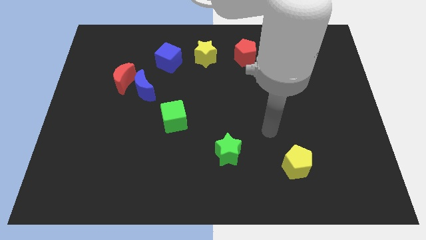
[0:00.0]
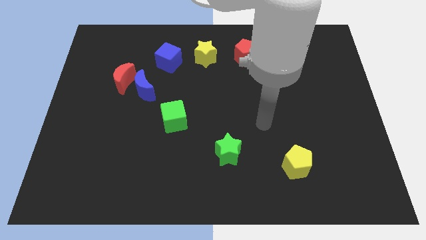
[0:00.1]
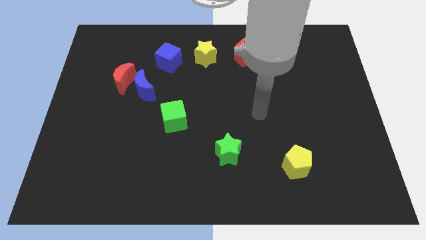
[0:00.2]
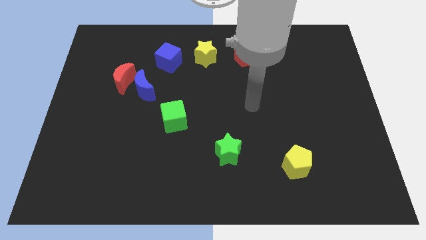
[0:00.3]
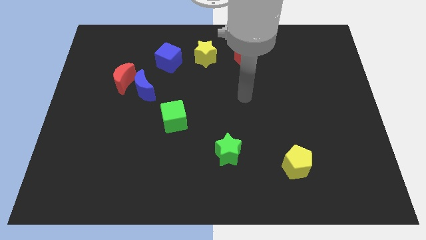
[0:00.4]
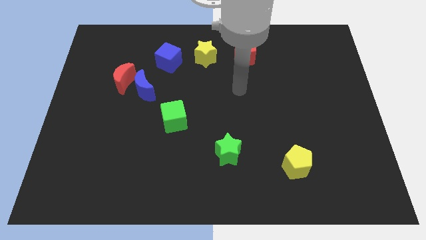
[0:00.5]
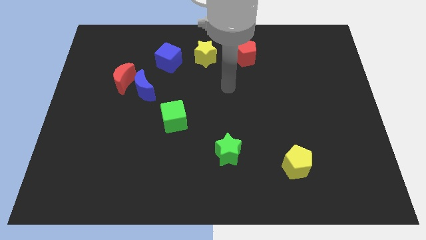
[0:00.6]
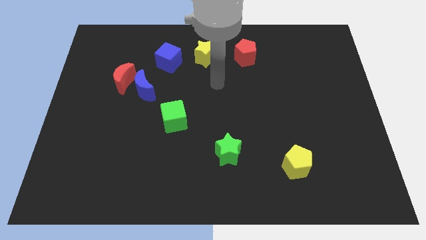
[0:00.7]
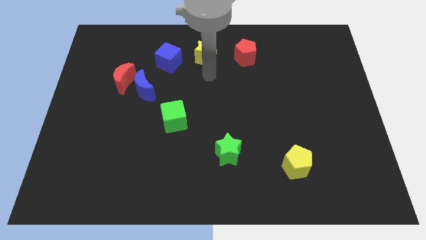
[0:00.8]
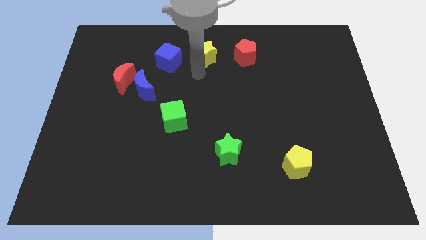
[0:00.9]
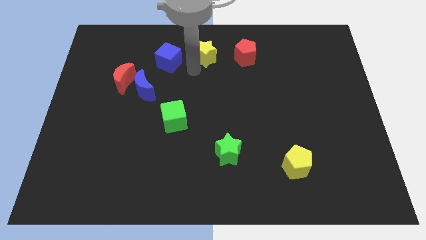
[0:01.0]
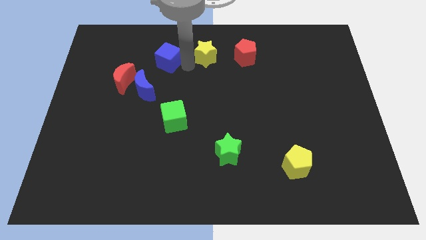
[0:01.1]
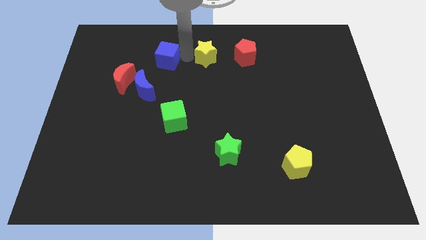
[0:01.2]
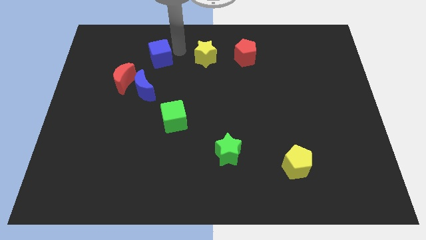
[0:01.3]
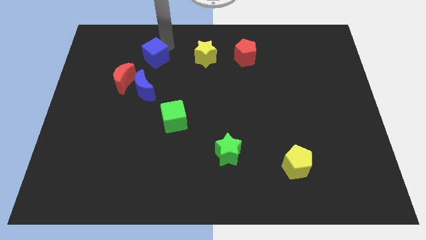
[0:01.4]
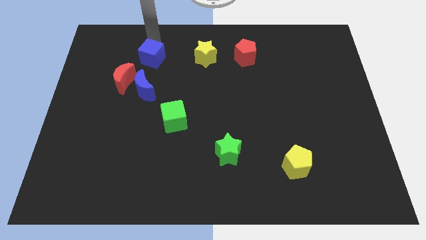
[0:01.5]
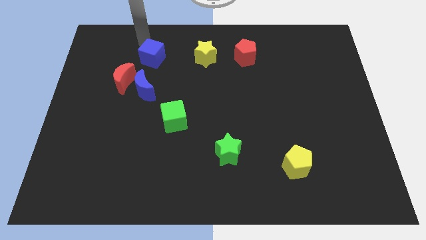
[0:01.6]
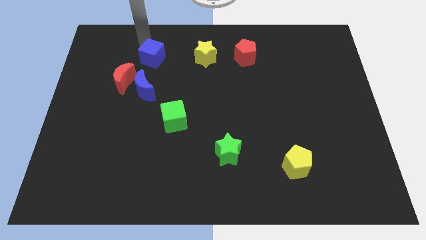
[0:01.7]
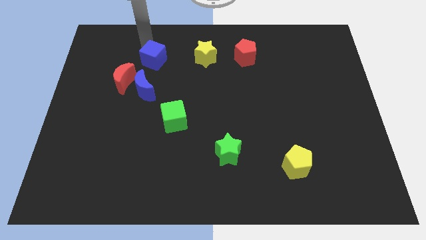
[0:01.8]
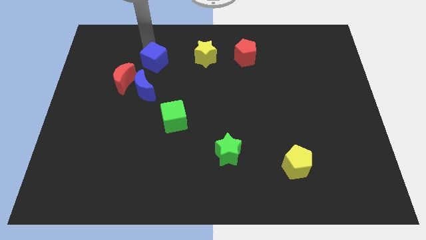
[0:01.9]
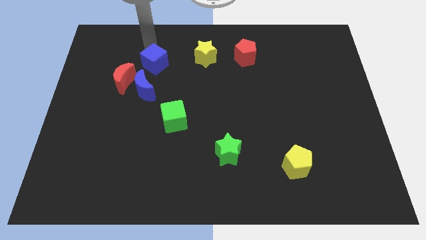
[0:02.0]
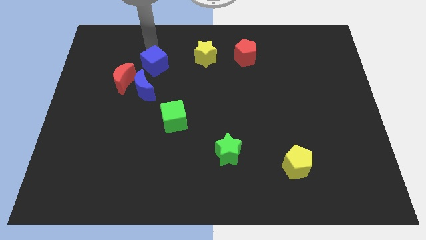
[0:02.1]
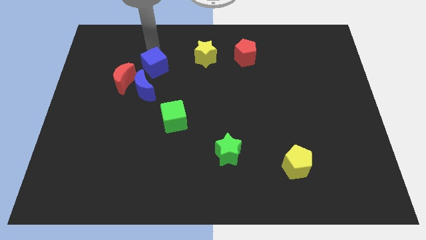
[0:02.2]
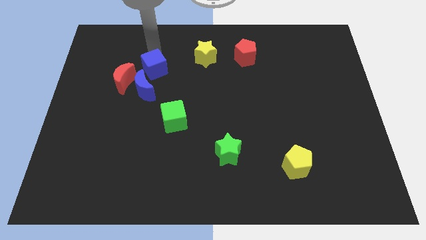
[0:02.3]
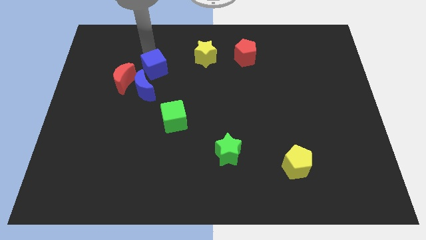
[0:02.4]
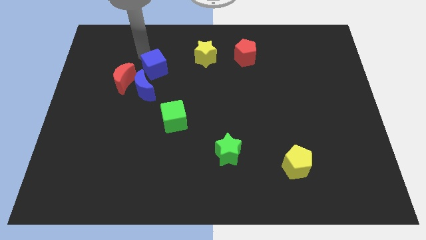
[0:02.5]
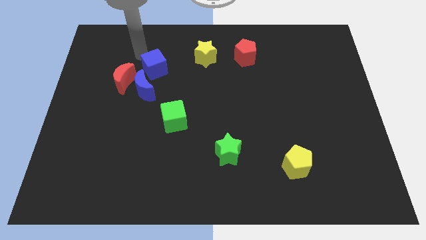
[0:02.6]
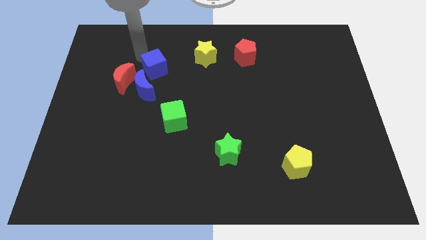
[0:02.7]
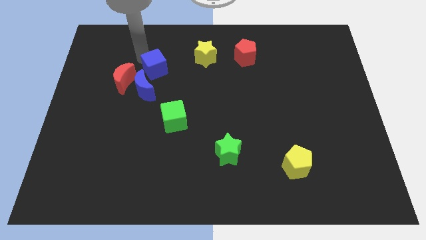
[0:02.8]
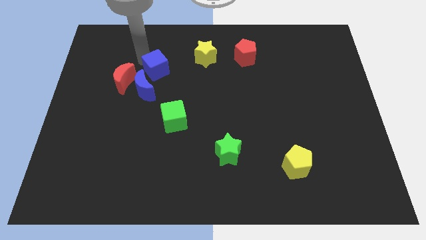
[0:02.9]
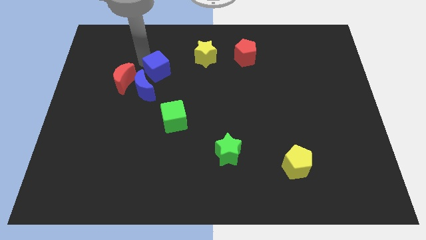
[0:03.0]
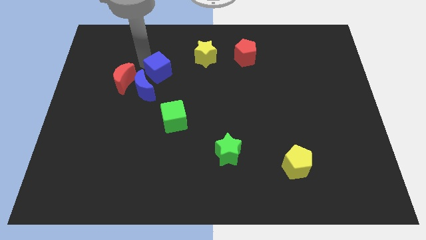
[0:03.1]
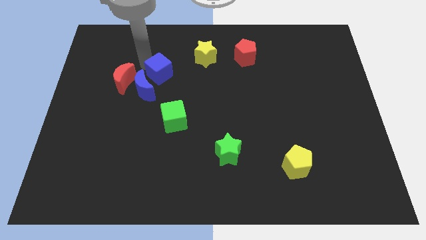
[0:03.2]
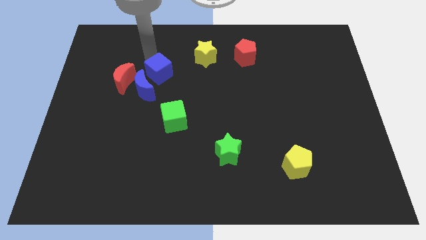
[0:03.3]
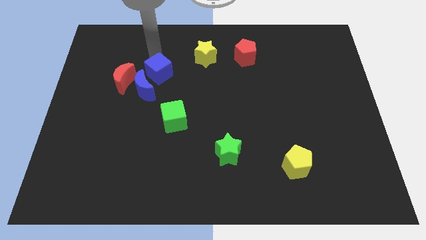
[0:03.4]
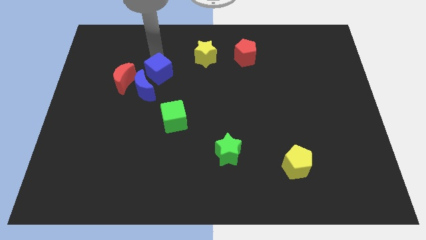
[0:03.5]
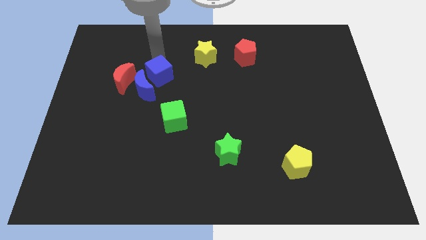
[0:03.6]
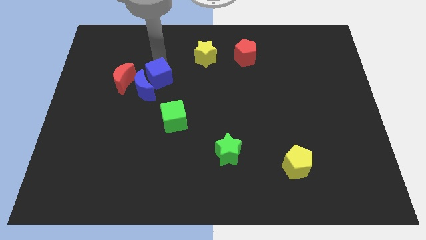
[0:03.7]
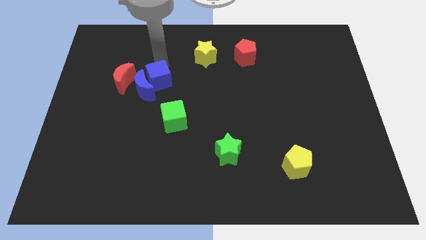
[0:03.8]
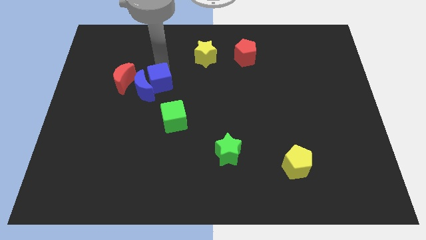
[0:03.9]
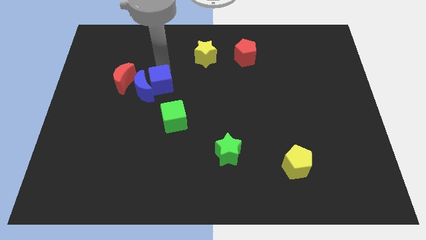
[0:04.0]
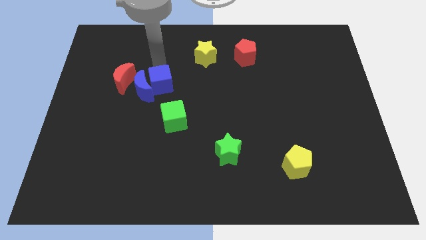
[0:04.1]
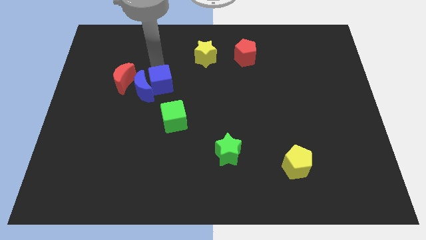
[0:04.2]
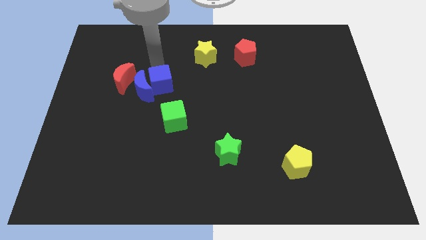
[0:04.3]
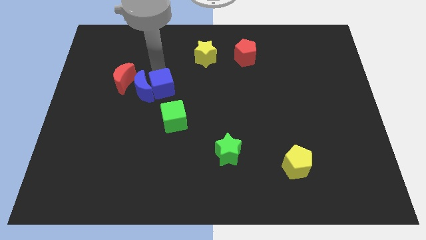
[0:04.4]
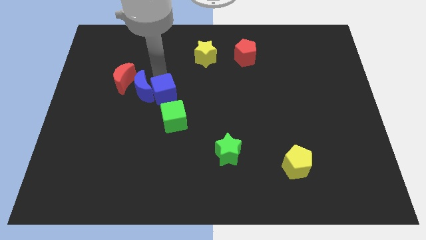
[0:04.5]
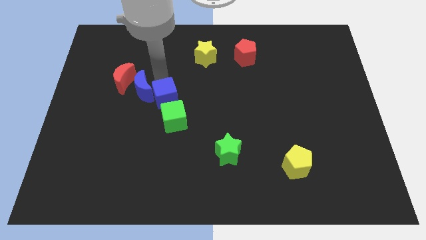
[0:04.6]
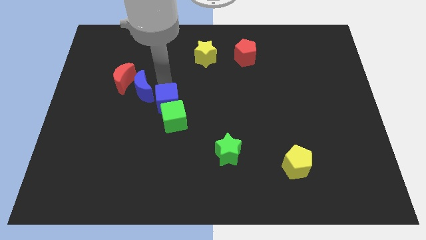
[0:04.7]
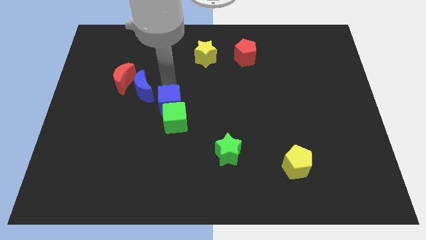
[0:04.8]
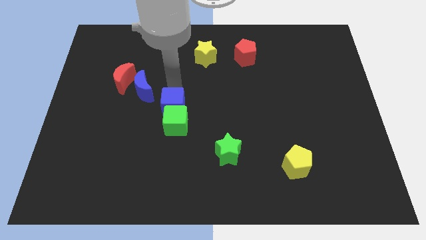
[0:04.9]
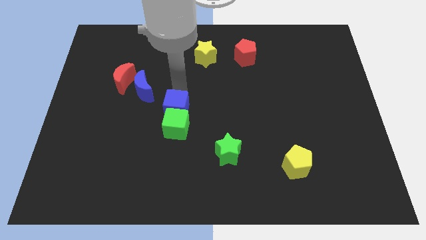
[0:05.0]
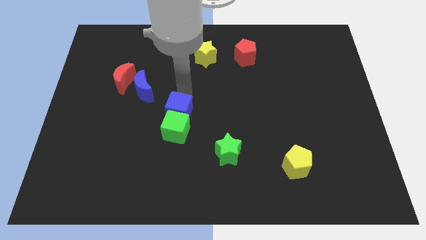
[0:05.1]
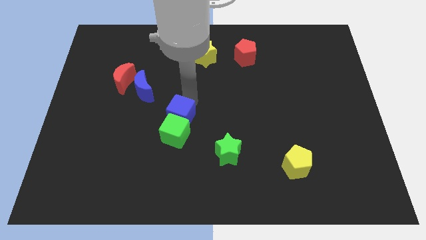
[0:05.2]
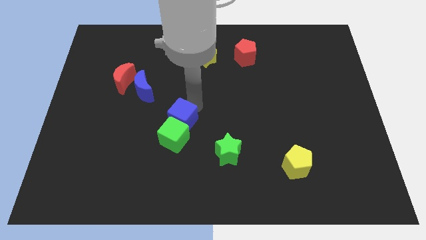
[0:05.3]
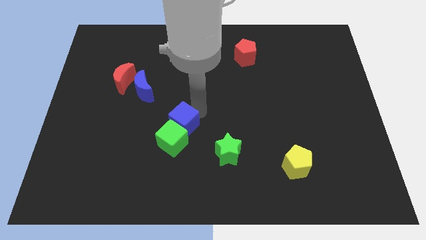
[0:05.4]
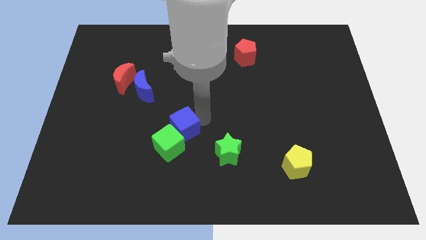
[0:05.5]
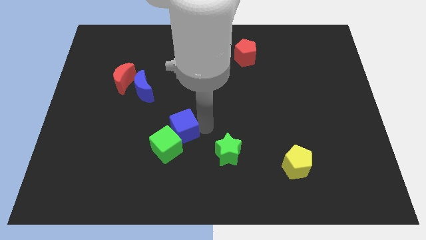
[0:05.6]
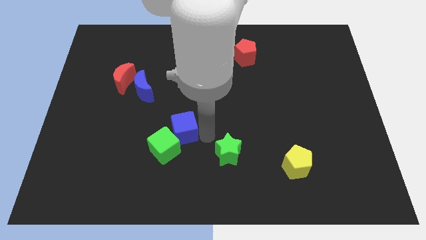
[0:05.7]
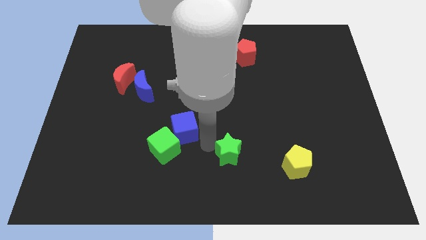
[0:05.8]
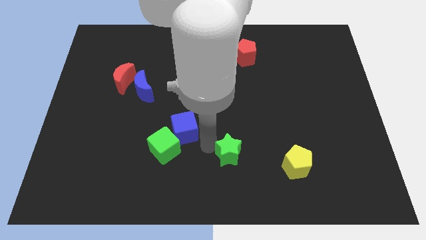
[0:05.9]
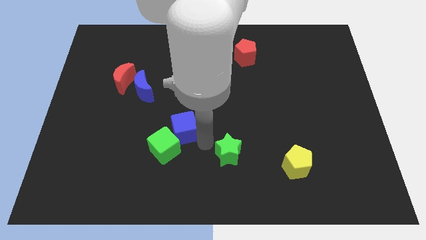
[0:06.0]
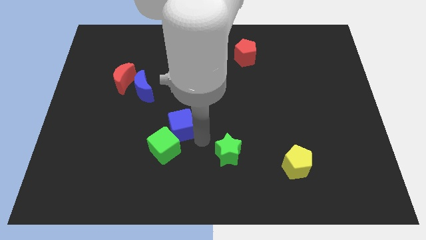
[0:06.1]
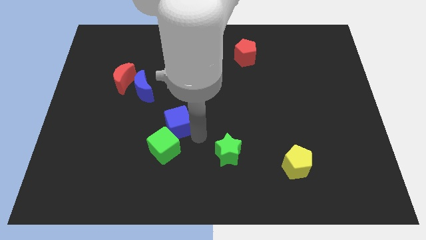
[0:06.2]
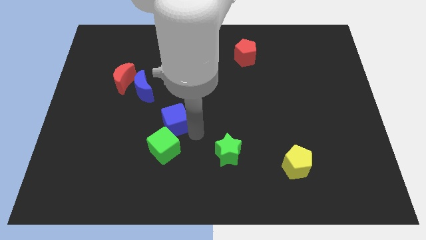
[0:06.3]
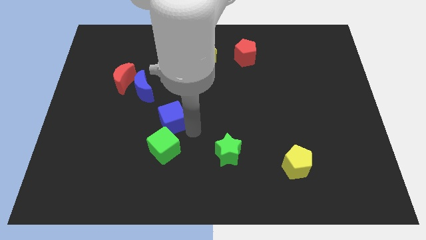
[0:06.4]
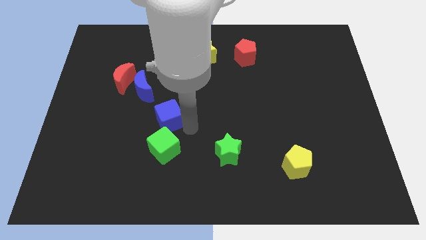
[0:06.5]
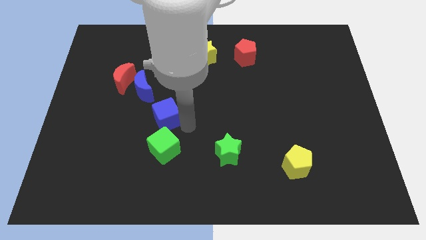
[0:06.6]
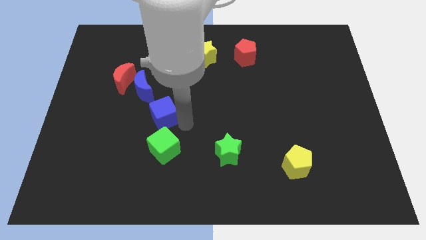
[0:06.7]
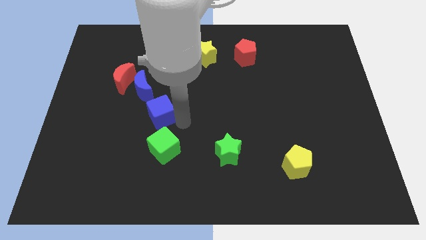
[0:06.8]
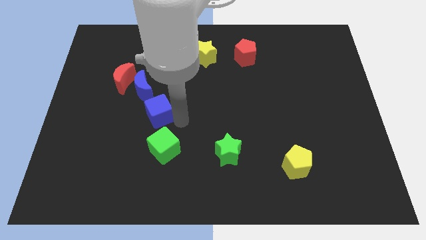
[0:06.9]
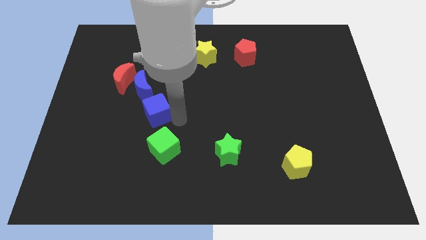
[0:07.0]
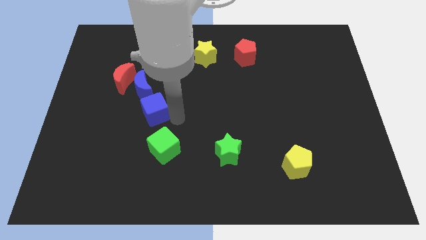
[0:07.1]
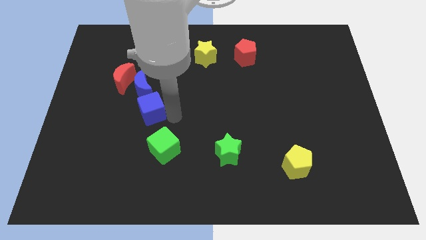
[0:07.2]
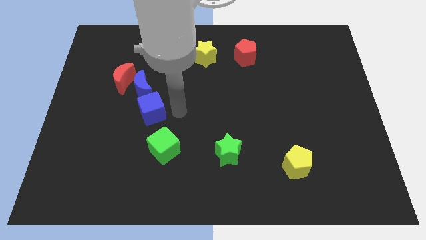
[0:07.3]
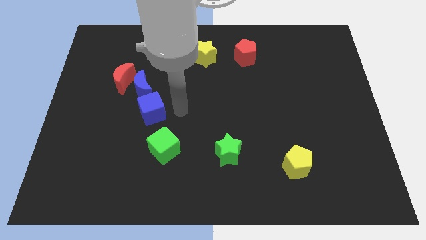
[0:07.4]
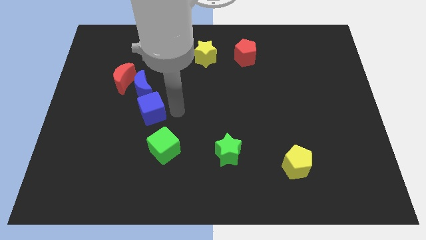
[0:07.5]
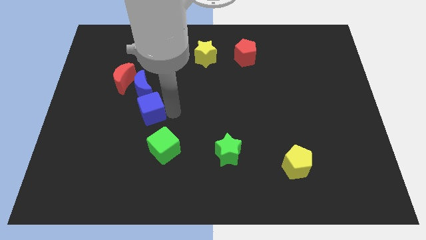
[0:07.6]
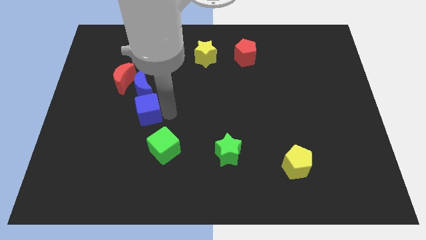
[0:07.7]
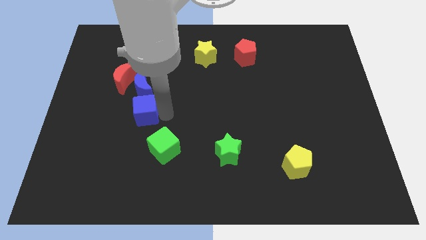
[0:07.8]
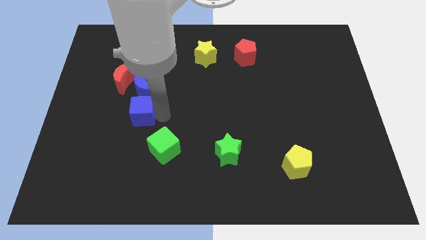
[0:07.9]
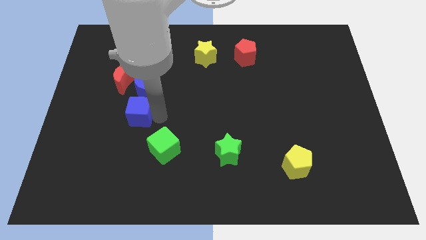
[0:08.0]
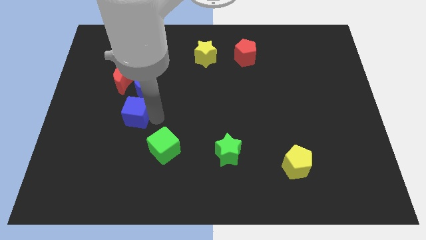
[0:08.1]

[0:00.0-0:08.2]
put the blue cube to the bottom of the red moon
